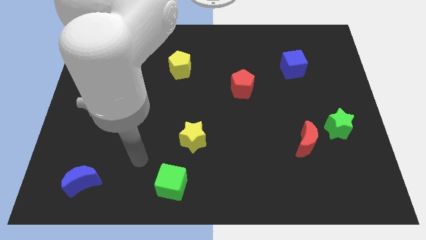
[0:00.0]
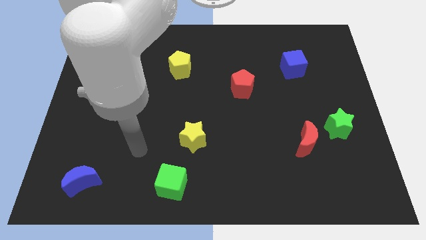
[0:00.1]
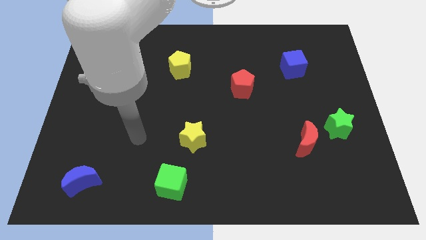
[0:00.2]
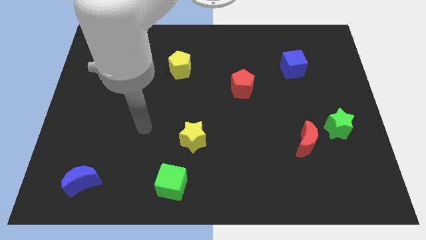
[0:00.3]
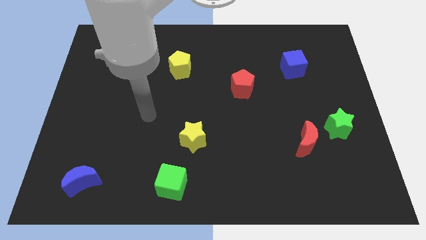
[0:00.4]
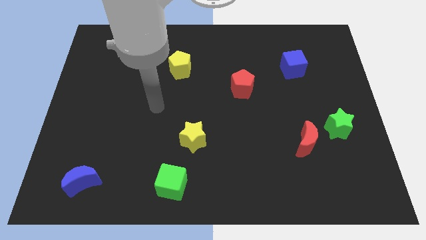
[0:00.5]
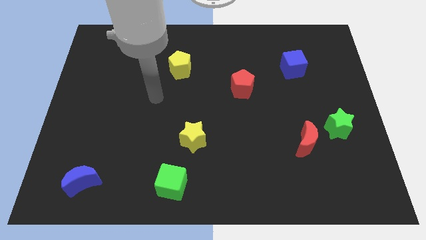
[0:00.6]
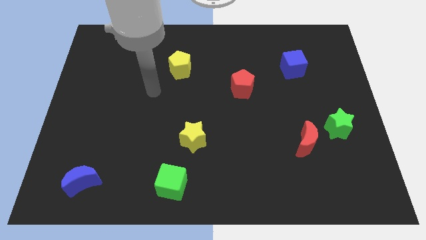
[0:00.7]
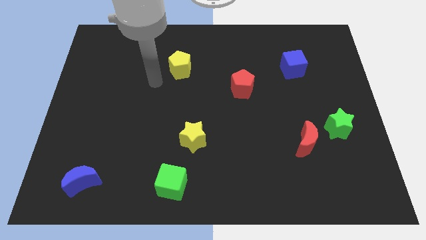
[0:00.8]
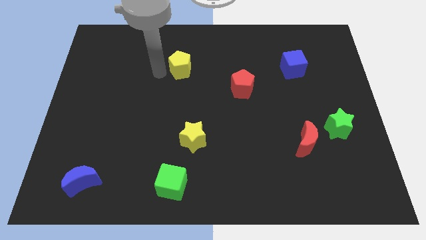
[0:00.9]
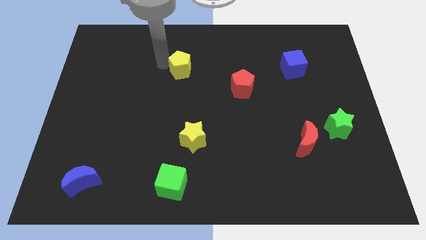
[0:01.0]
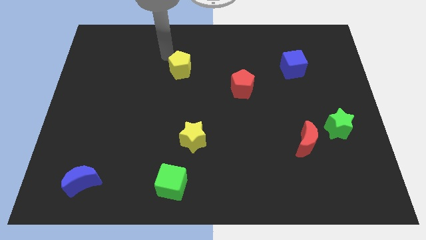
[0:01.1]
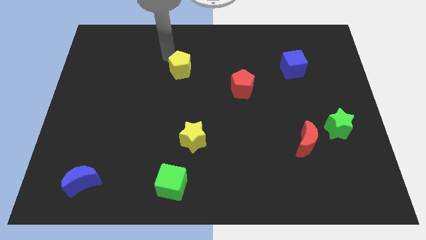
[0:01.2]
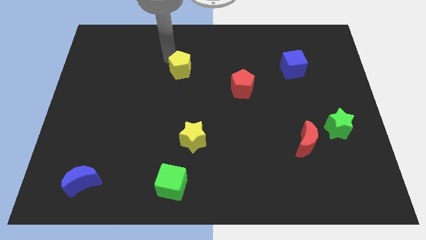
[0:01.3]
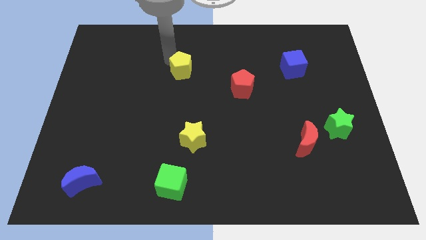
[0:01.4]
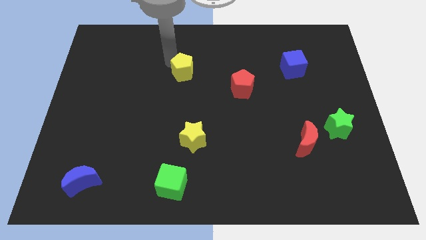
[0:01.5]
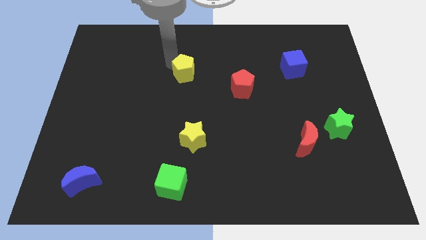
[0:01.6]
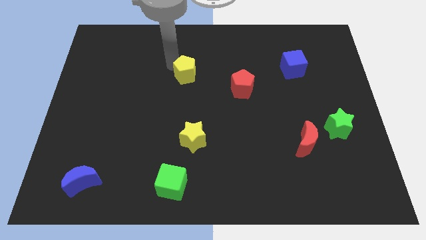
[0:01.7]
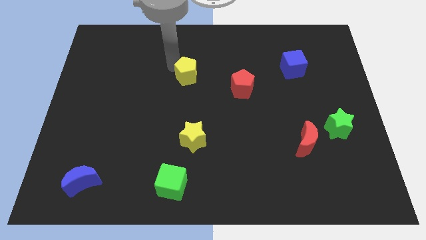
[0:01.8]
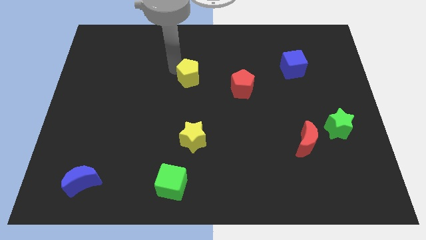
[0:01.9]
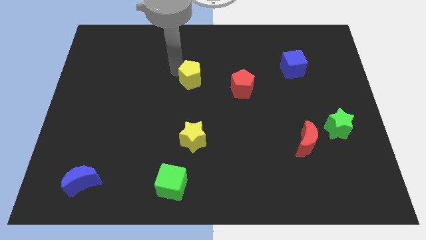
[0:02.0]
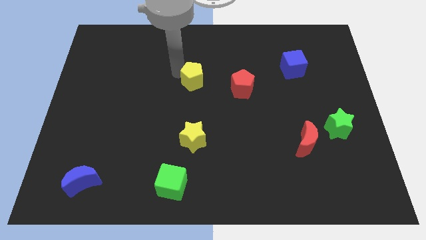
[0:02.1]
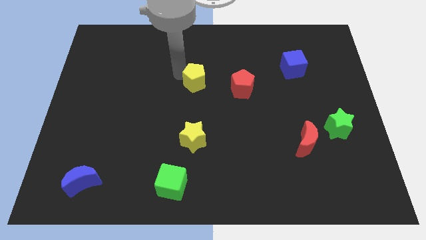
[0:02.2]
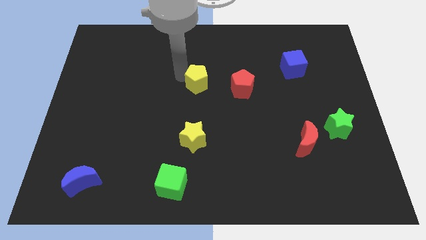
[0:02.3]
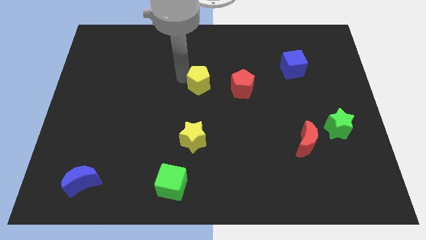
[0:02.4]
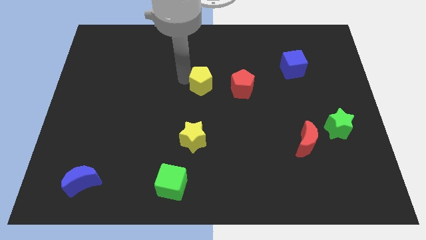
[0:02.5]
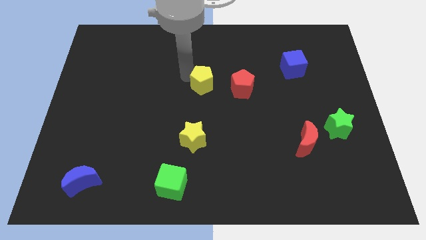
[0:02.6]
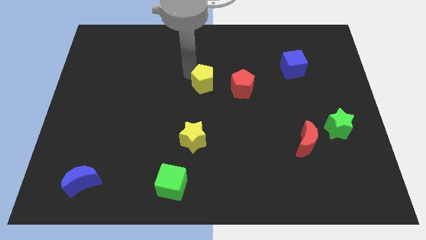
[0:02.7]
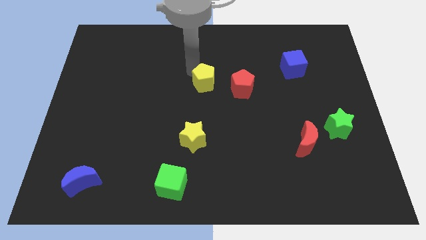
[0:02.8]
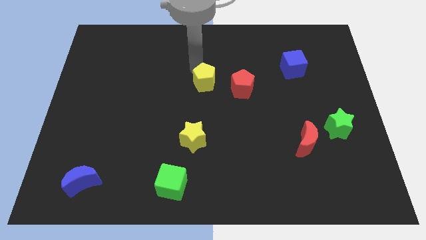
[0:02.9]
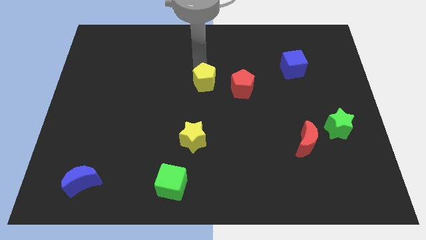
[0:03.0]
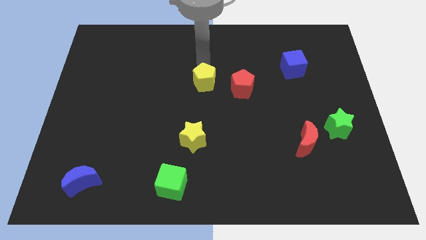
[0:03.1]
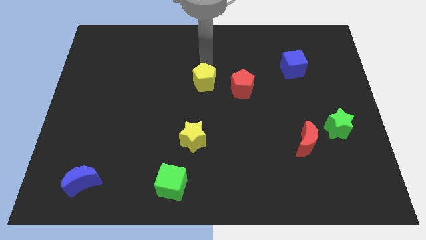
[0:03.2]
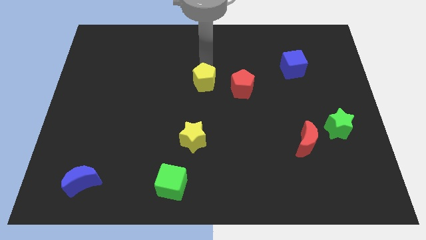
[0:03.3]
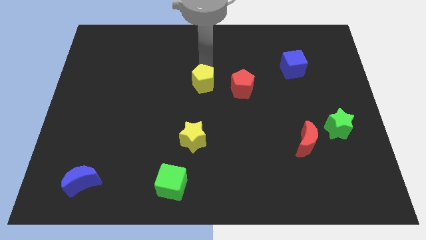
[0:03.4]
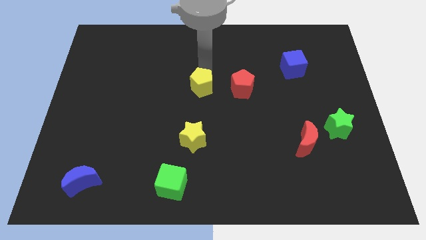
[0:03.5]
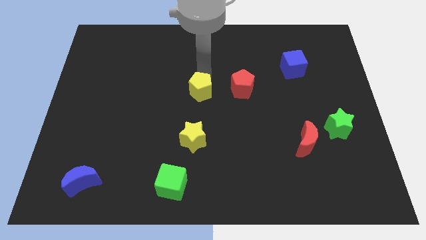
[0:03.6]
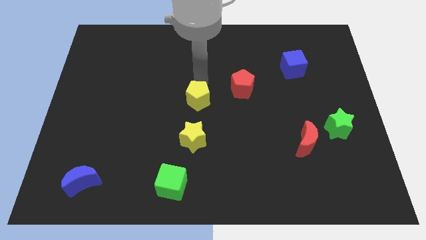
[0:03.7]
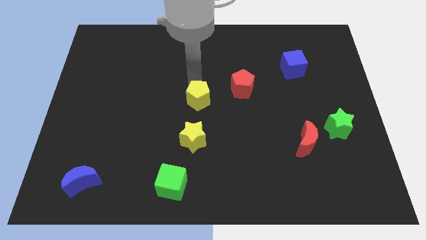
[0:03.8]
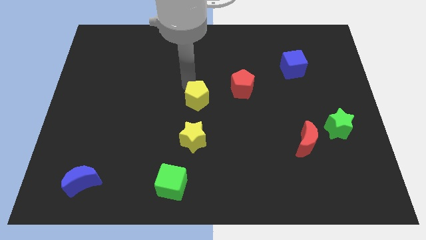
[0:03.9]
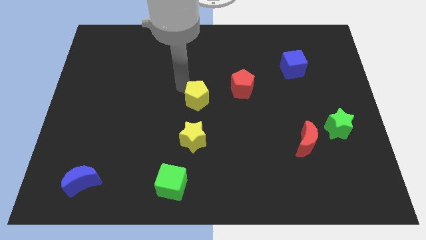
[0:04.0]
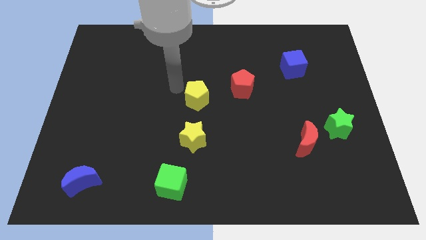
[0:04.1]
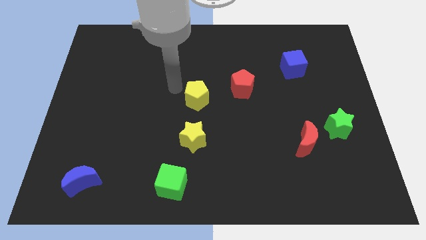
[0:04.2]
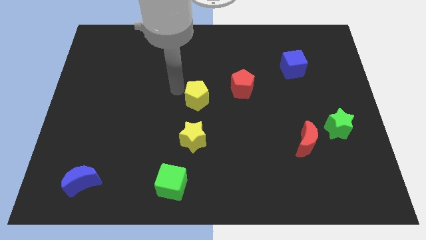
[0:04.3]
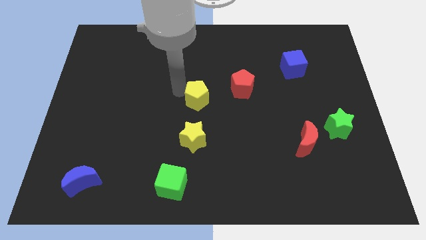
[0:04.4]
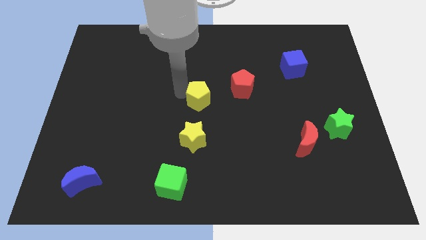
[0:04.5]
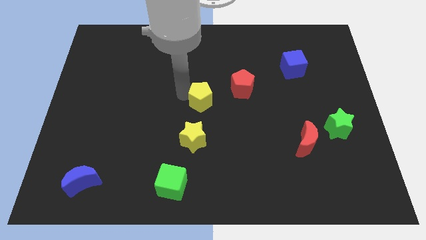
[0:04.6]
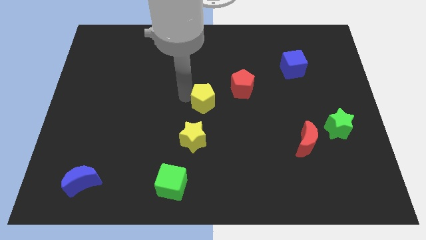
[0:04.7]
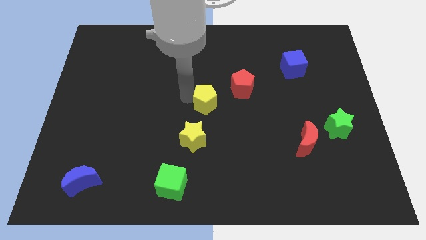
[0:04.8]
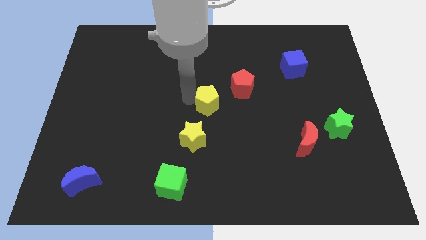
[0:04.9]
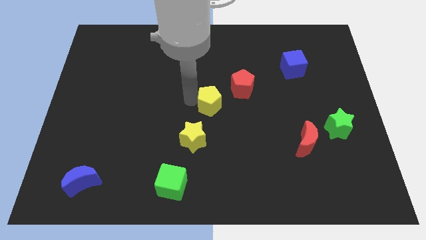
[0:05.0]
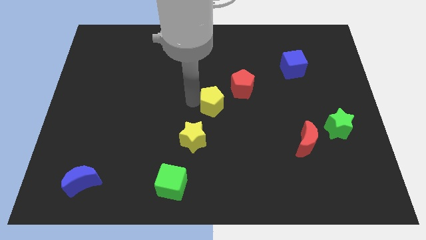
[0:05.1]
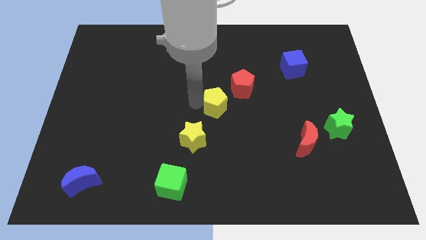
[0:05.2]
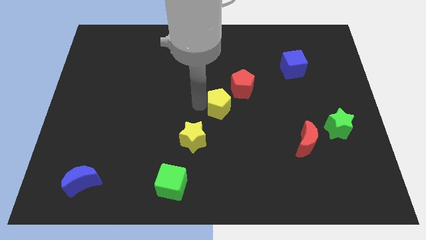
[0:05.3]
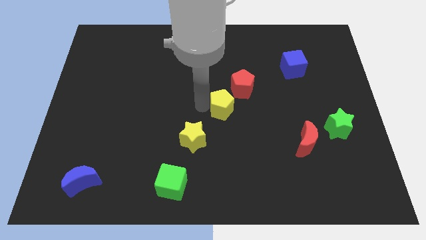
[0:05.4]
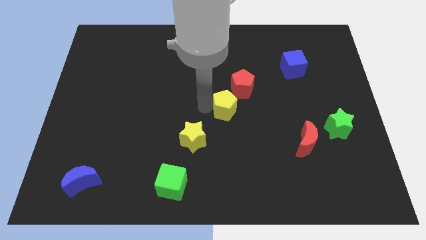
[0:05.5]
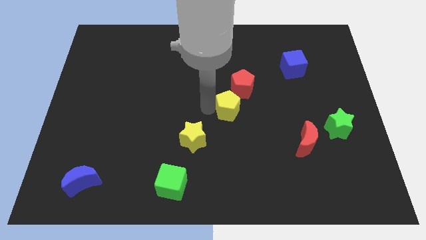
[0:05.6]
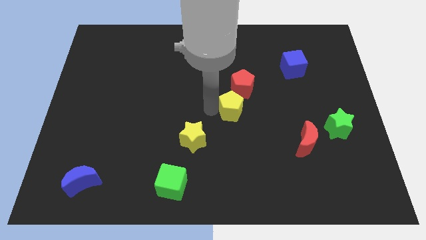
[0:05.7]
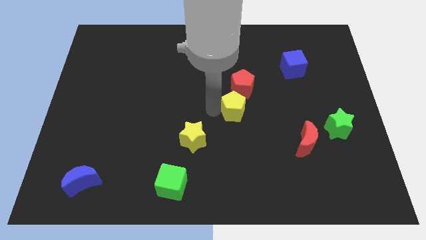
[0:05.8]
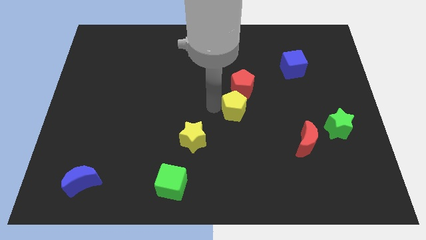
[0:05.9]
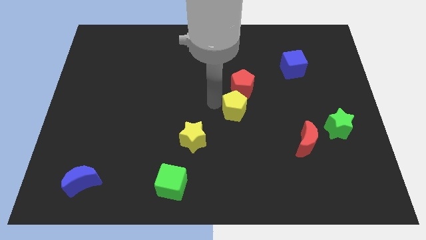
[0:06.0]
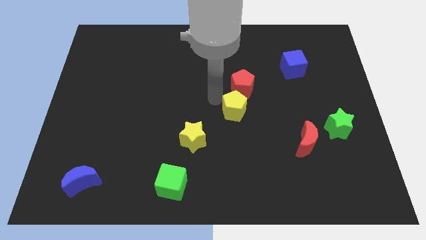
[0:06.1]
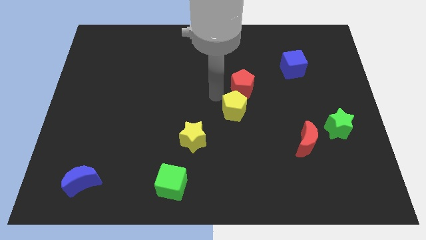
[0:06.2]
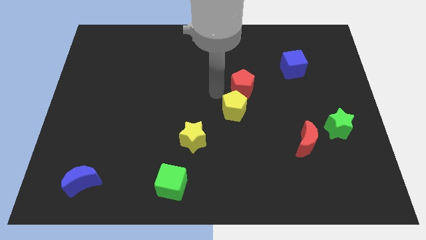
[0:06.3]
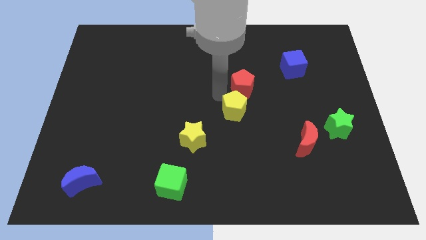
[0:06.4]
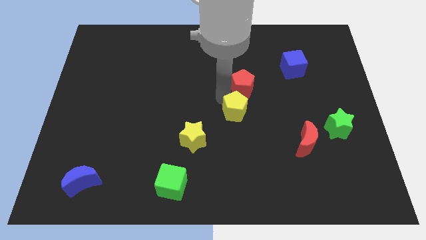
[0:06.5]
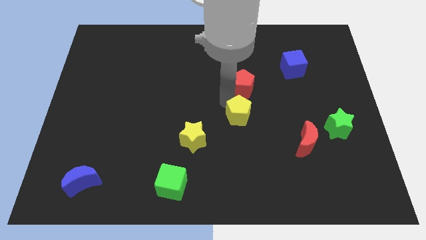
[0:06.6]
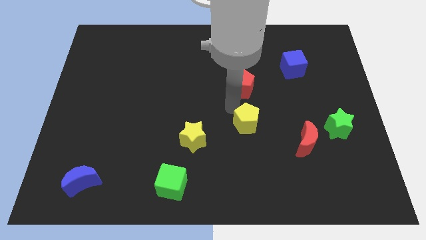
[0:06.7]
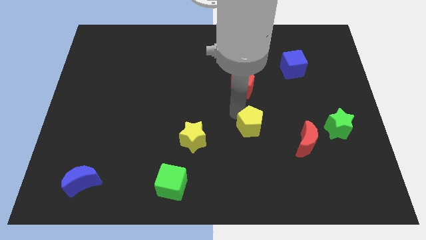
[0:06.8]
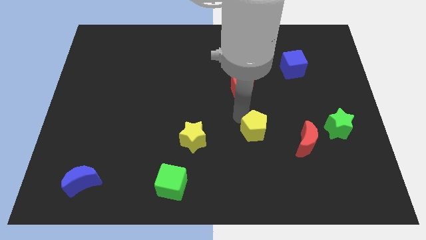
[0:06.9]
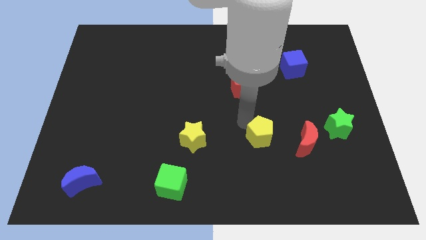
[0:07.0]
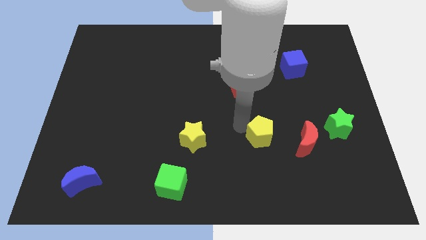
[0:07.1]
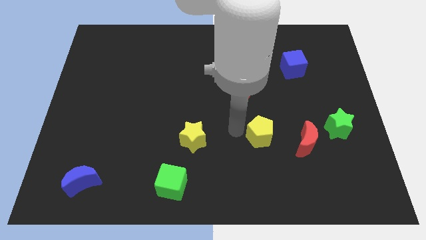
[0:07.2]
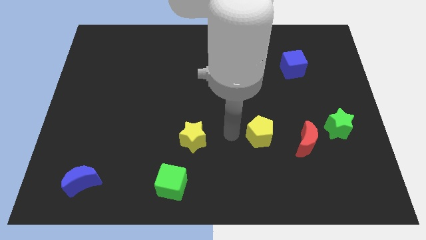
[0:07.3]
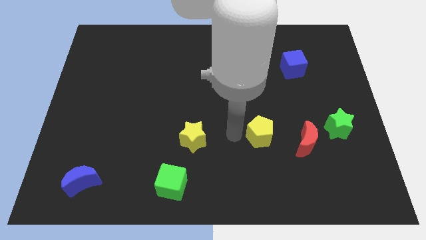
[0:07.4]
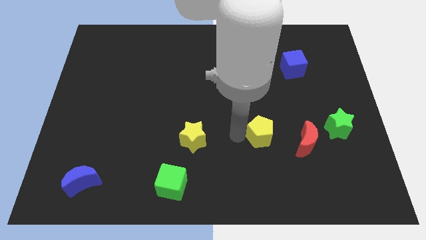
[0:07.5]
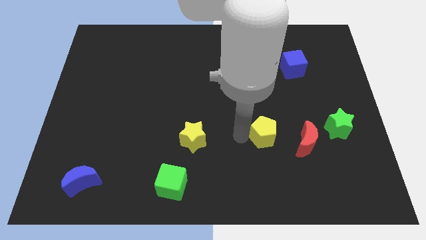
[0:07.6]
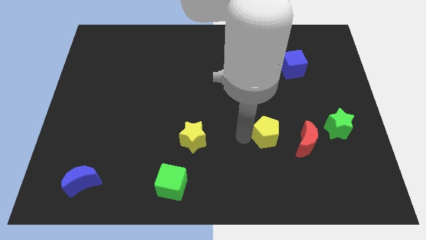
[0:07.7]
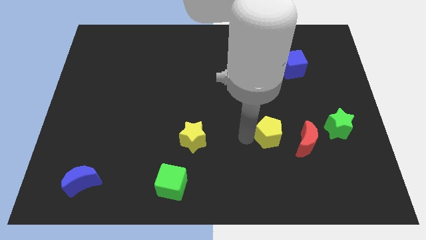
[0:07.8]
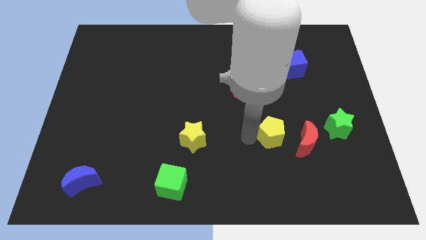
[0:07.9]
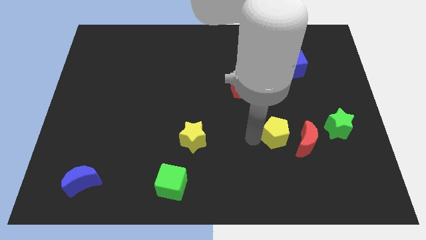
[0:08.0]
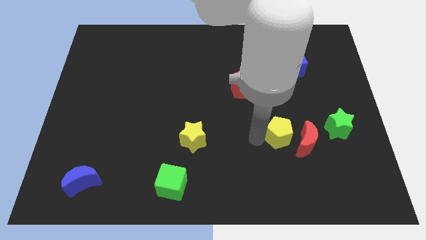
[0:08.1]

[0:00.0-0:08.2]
move the yellow pentagon close to the red moon
